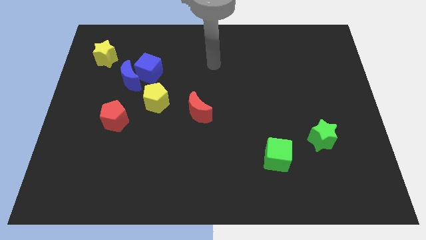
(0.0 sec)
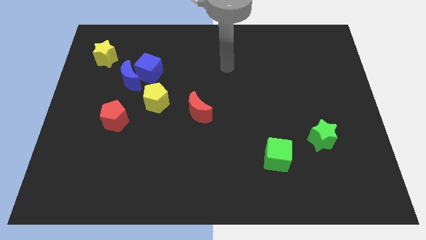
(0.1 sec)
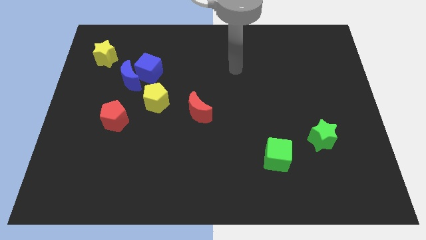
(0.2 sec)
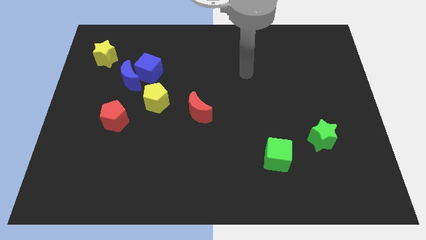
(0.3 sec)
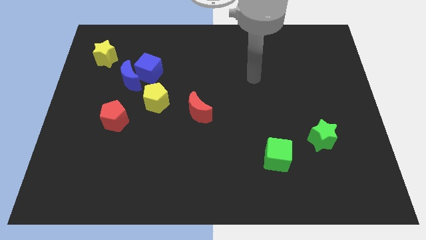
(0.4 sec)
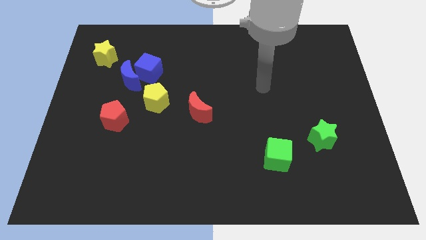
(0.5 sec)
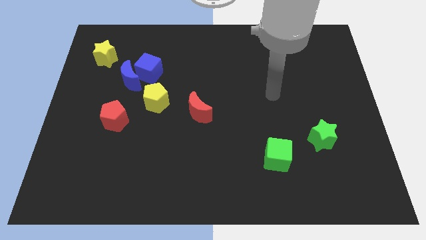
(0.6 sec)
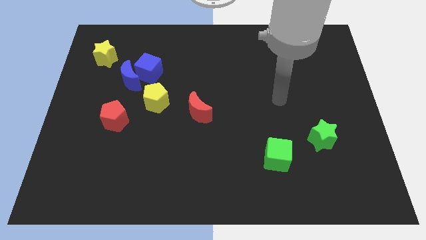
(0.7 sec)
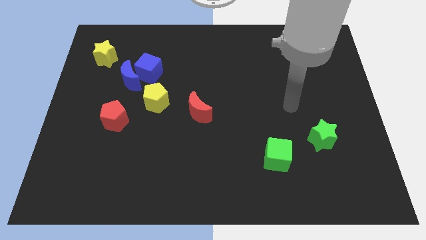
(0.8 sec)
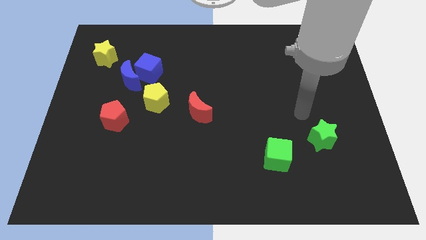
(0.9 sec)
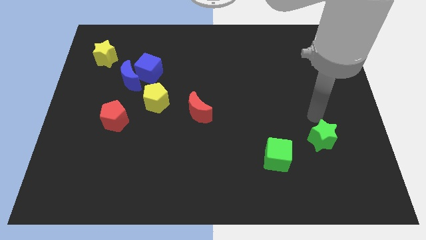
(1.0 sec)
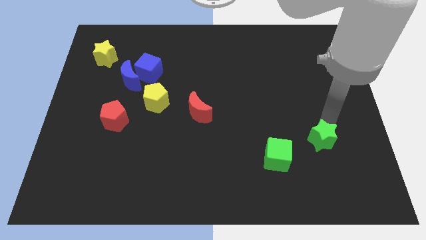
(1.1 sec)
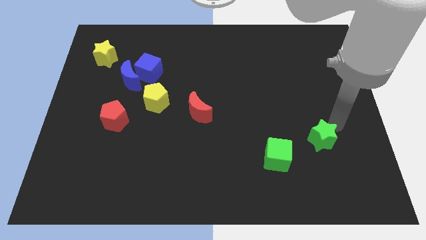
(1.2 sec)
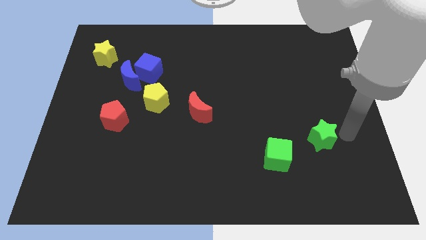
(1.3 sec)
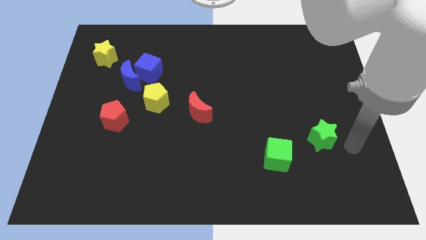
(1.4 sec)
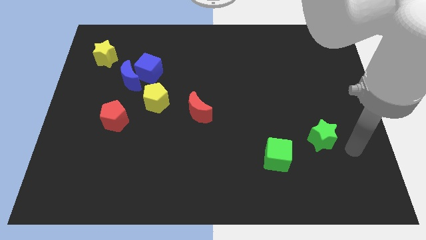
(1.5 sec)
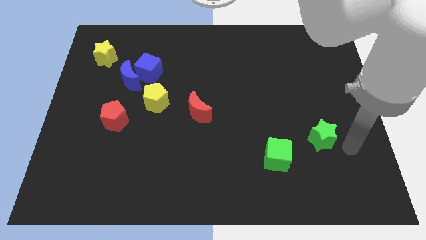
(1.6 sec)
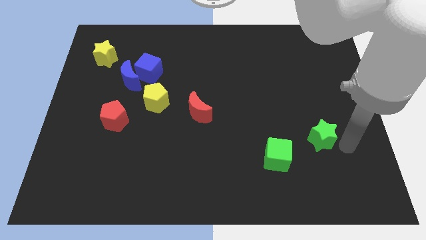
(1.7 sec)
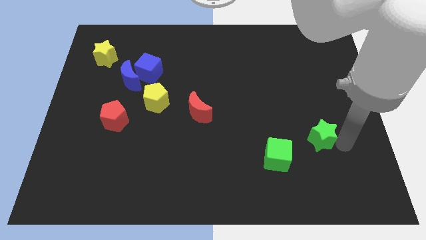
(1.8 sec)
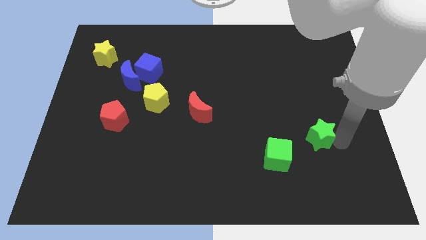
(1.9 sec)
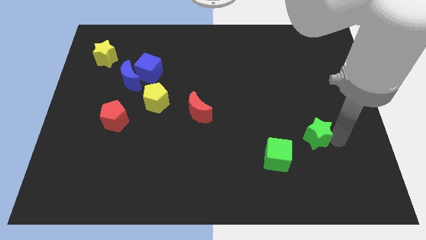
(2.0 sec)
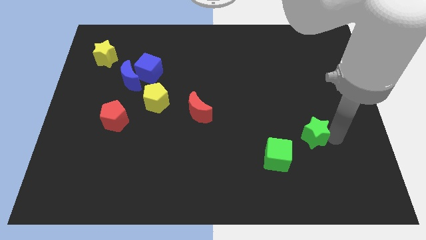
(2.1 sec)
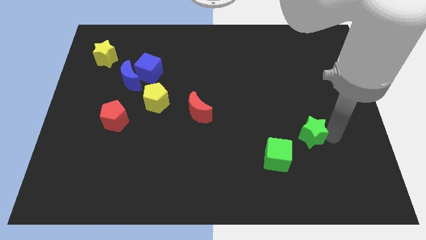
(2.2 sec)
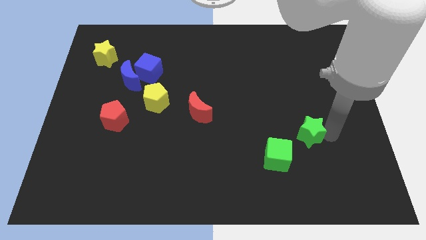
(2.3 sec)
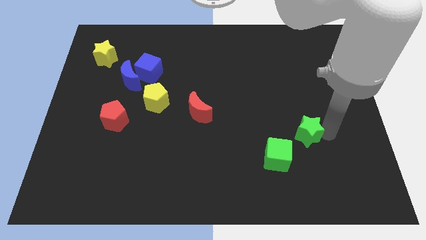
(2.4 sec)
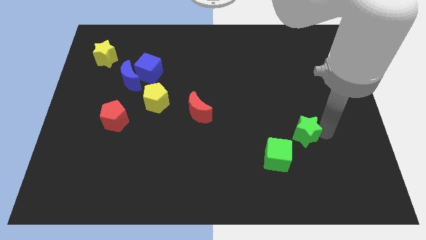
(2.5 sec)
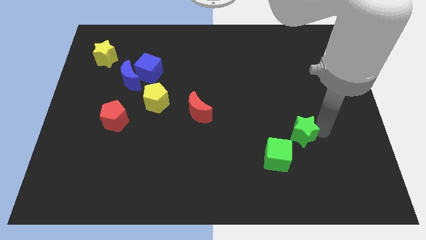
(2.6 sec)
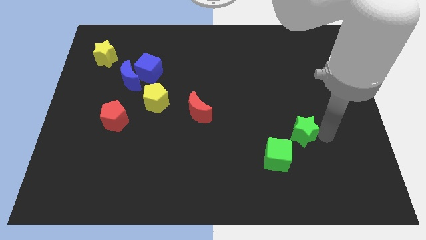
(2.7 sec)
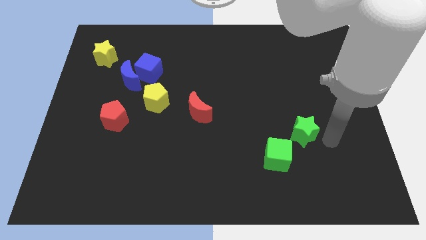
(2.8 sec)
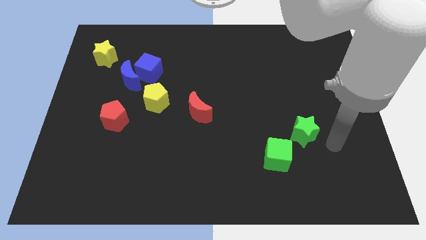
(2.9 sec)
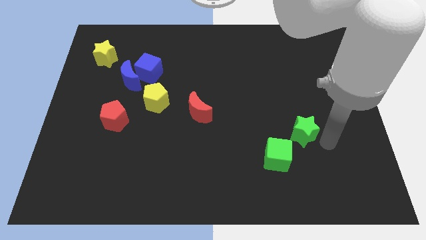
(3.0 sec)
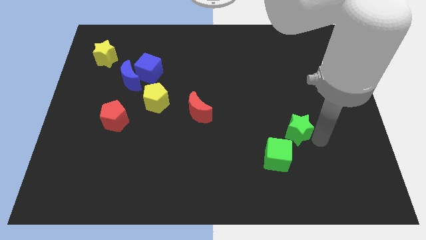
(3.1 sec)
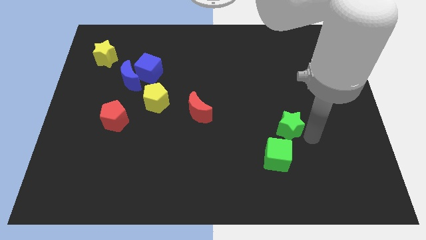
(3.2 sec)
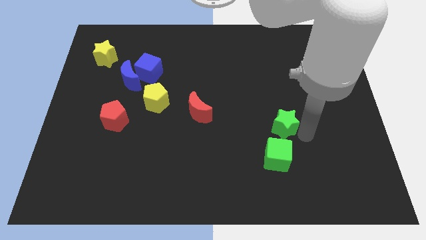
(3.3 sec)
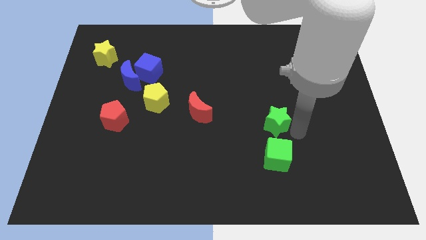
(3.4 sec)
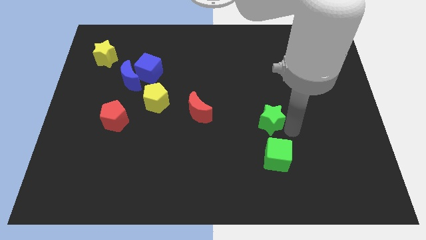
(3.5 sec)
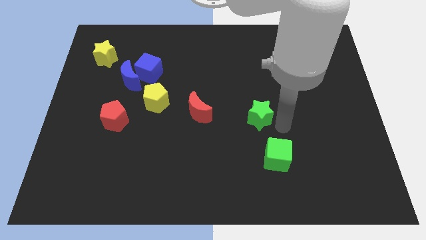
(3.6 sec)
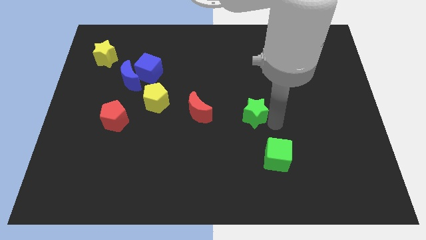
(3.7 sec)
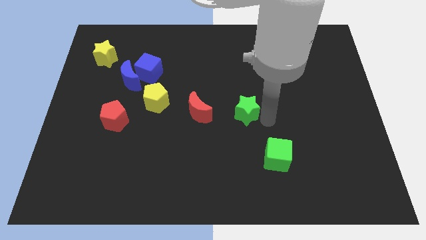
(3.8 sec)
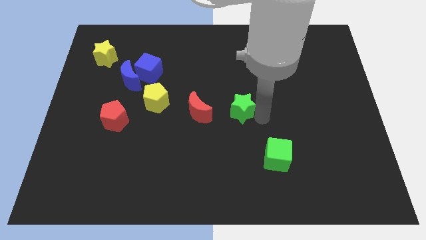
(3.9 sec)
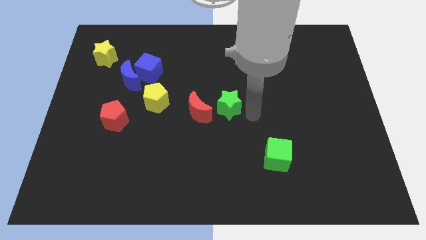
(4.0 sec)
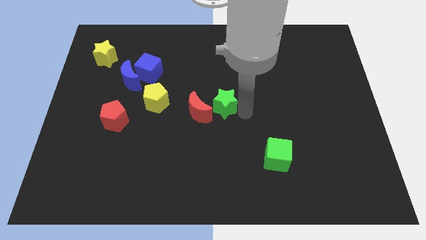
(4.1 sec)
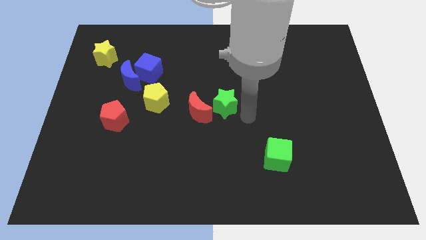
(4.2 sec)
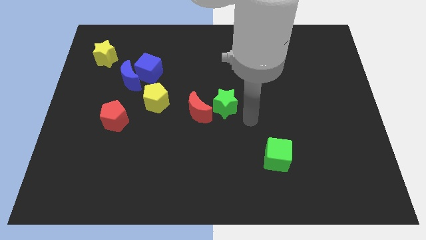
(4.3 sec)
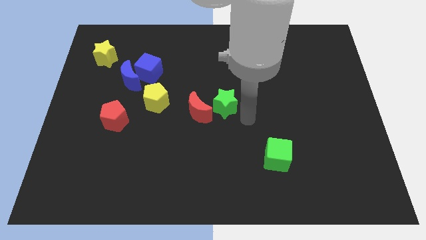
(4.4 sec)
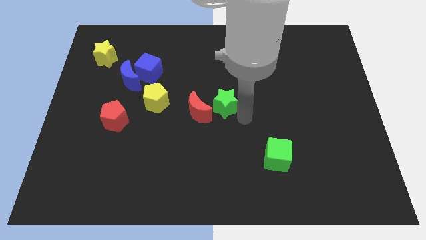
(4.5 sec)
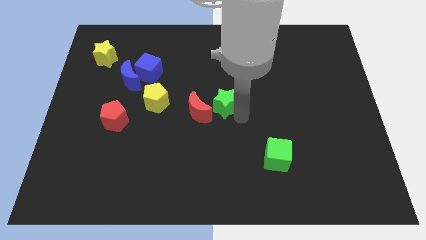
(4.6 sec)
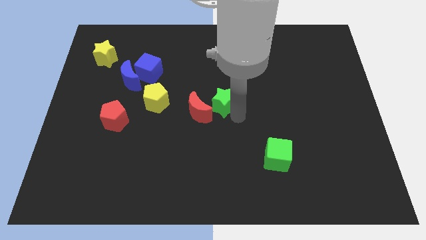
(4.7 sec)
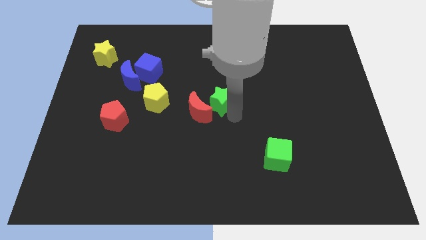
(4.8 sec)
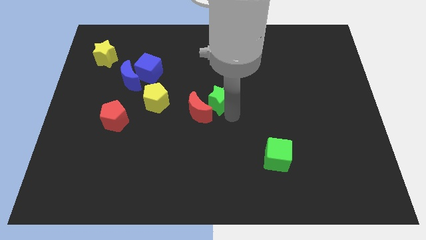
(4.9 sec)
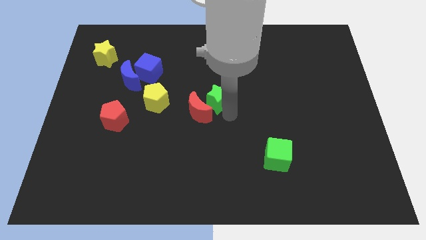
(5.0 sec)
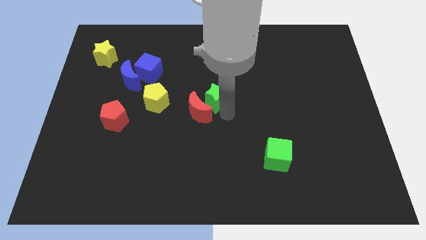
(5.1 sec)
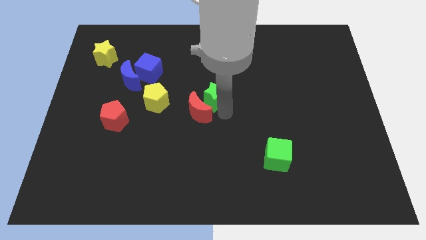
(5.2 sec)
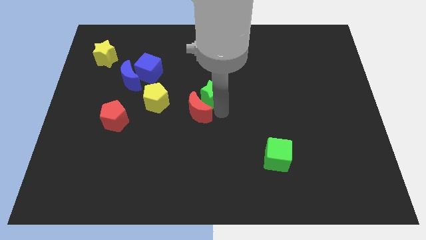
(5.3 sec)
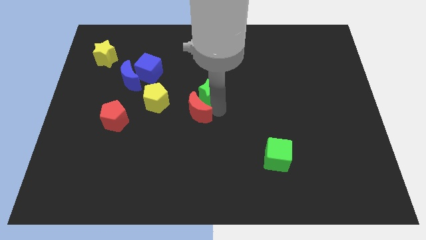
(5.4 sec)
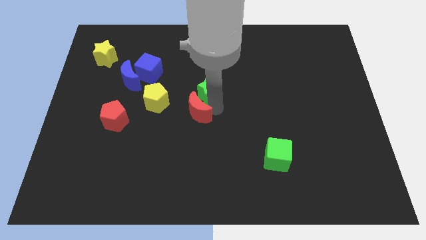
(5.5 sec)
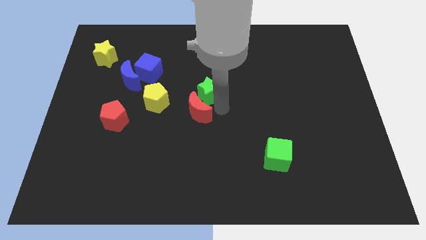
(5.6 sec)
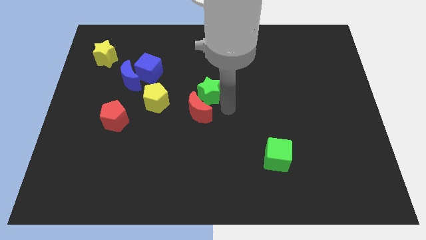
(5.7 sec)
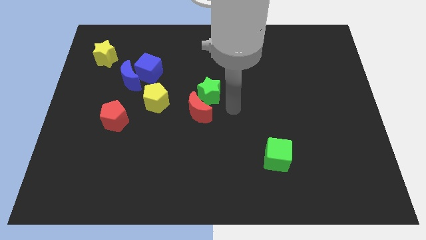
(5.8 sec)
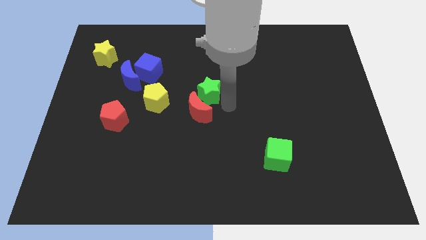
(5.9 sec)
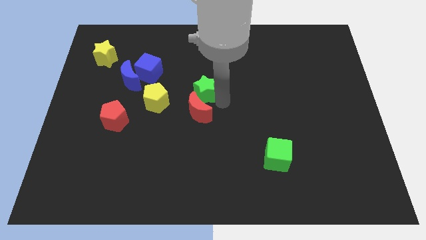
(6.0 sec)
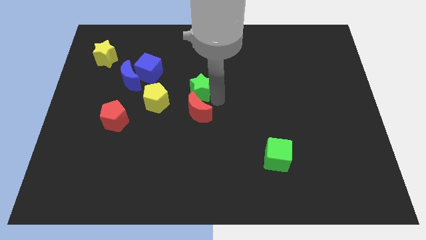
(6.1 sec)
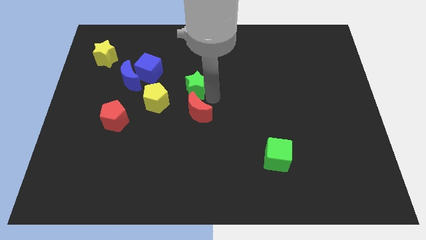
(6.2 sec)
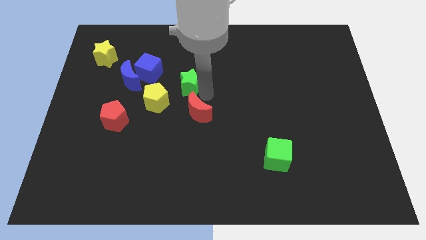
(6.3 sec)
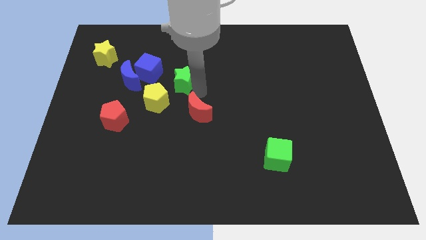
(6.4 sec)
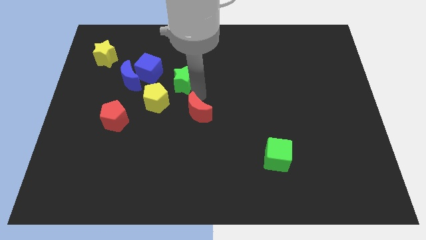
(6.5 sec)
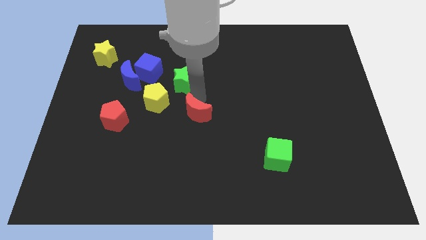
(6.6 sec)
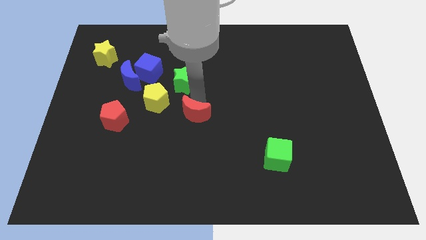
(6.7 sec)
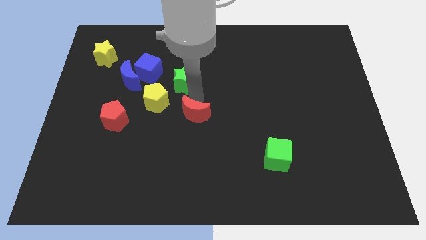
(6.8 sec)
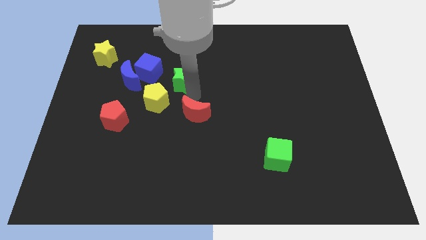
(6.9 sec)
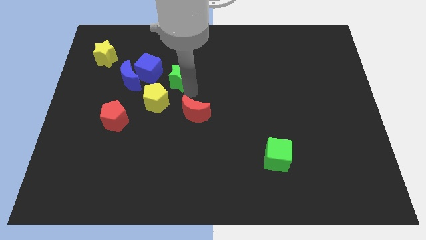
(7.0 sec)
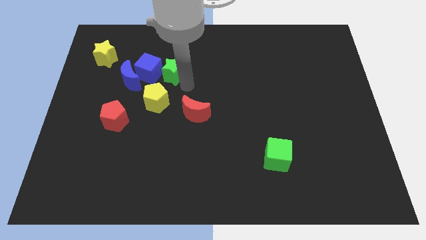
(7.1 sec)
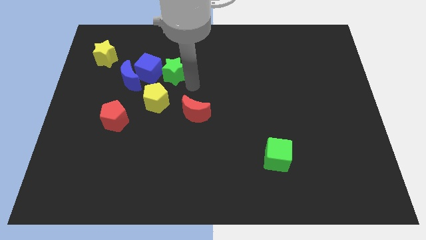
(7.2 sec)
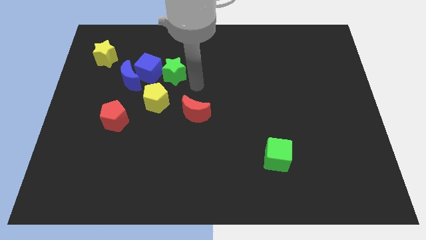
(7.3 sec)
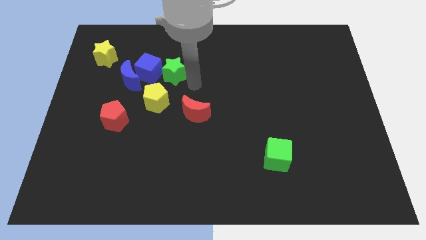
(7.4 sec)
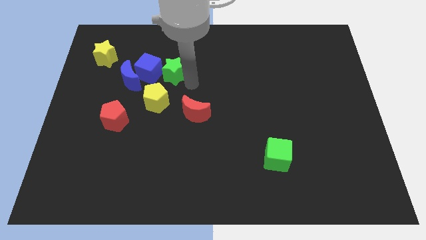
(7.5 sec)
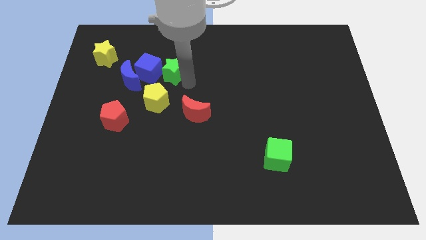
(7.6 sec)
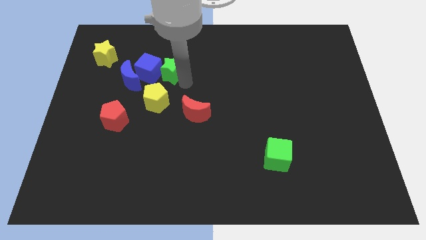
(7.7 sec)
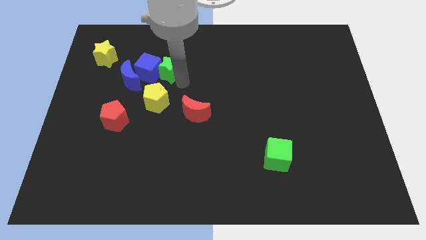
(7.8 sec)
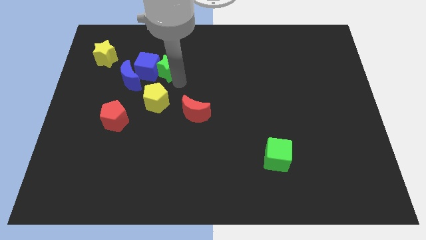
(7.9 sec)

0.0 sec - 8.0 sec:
push the green star to the top right of the blue moon
